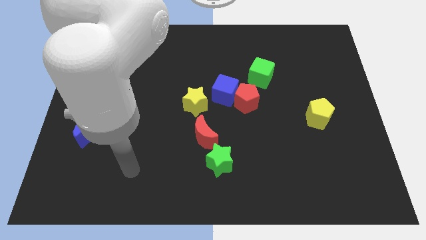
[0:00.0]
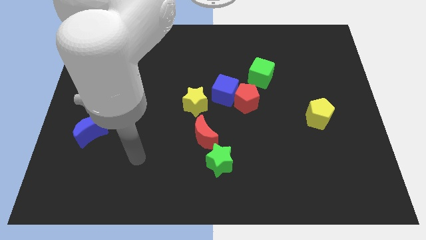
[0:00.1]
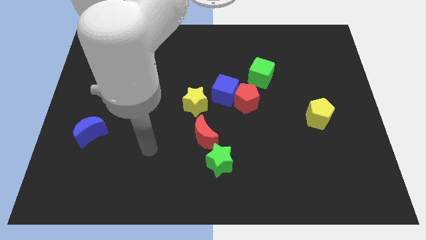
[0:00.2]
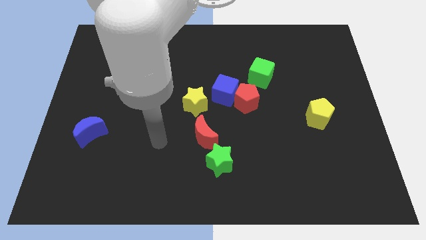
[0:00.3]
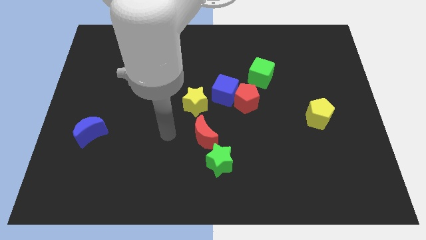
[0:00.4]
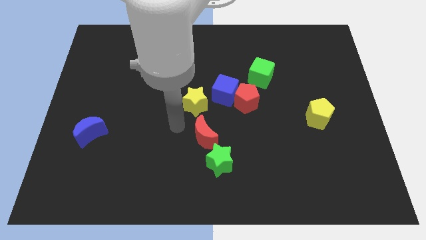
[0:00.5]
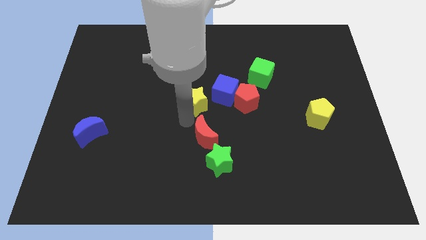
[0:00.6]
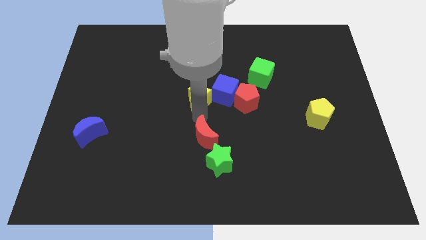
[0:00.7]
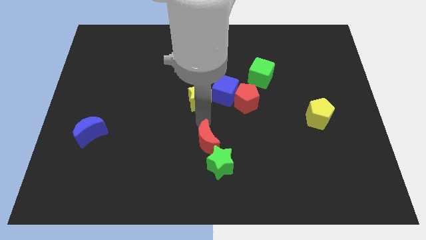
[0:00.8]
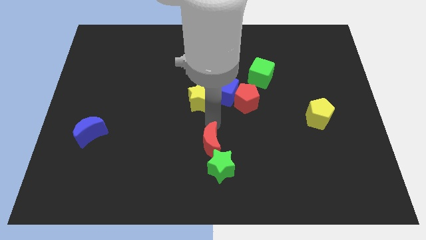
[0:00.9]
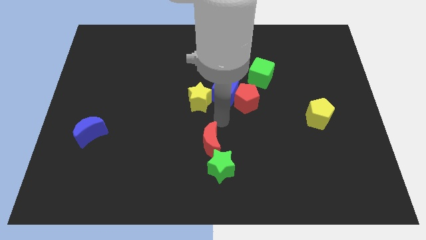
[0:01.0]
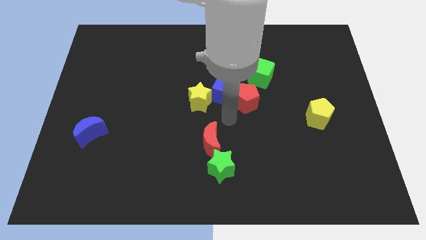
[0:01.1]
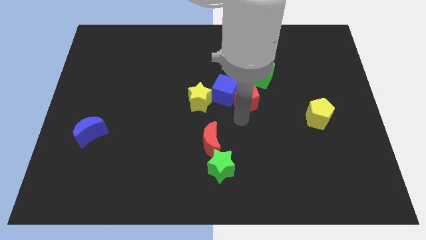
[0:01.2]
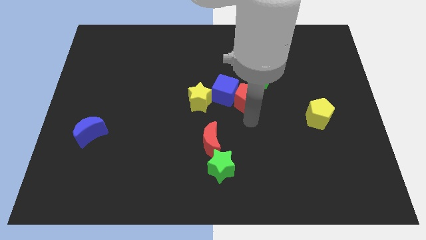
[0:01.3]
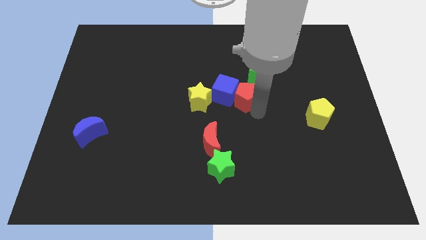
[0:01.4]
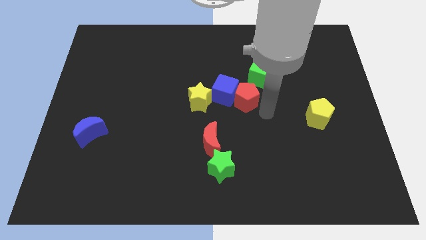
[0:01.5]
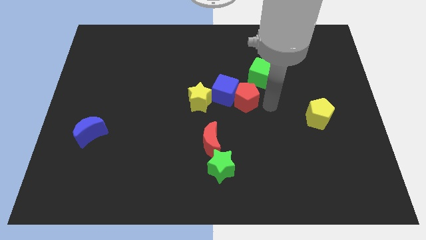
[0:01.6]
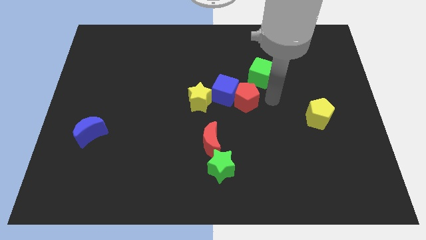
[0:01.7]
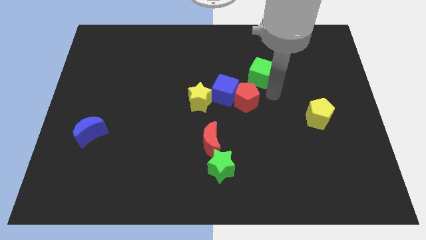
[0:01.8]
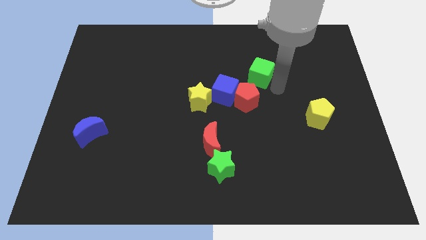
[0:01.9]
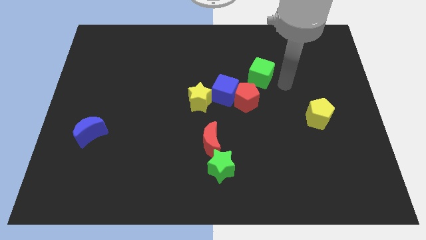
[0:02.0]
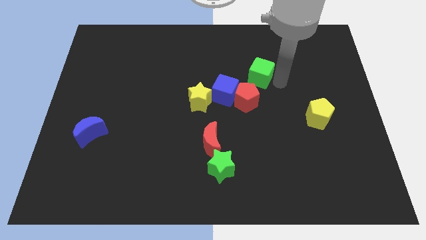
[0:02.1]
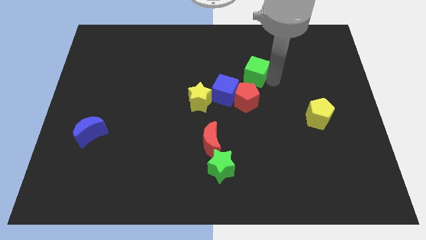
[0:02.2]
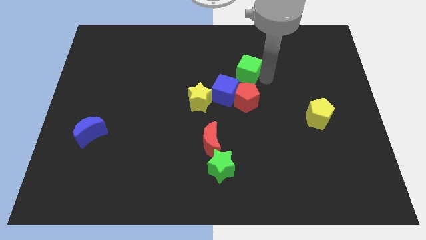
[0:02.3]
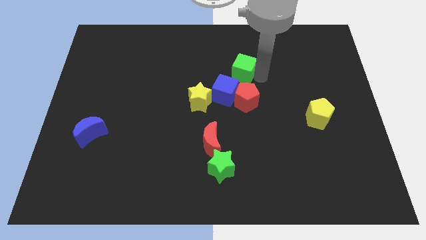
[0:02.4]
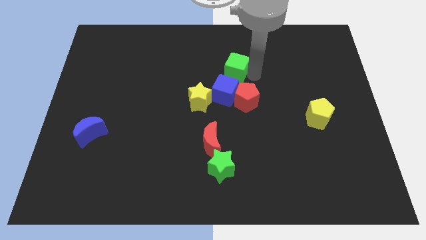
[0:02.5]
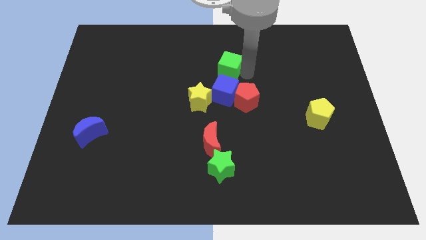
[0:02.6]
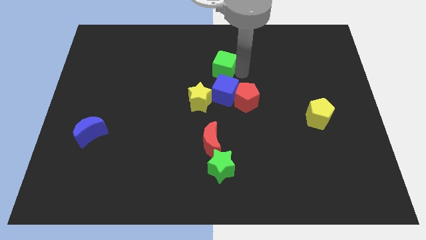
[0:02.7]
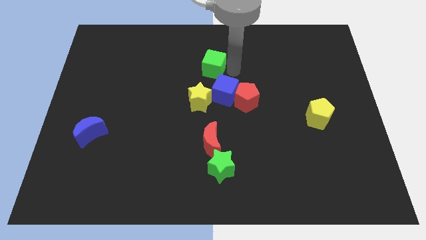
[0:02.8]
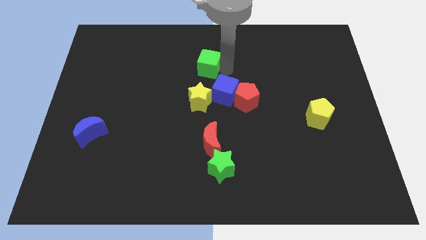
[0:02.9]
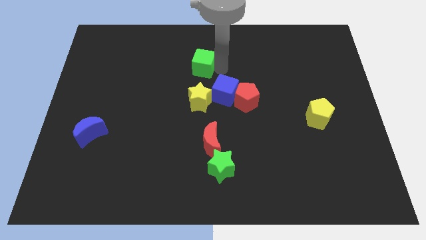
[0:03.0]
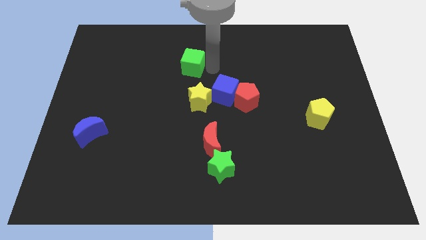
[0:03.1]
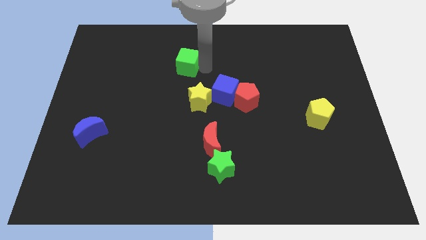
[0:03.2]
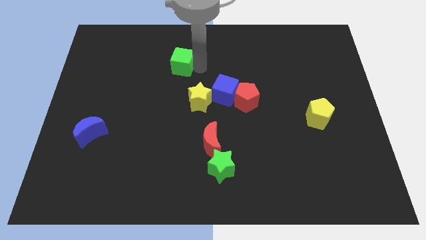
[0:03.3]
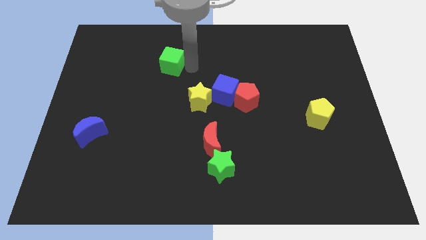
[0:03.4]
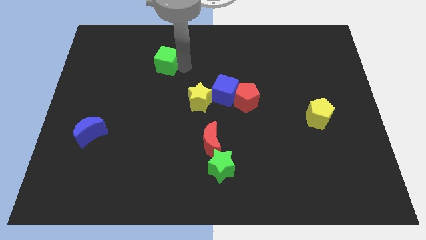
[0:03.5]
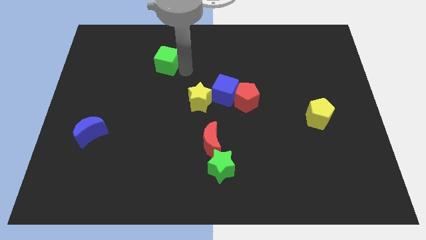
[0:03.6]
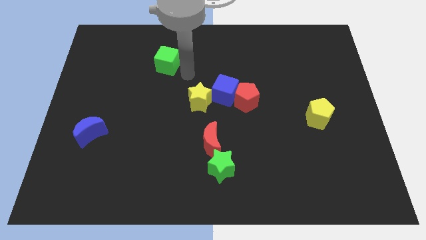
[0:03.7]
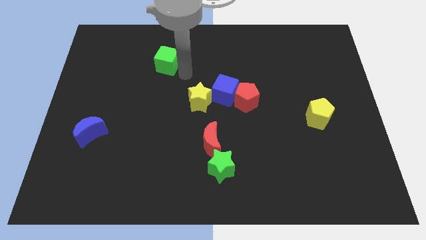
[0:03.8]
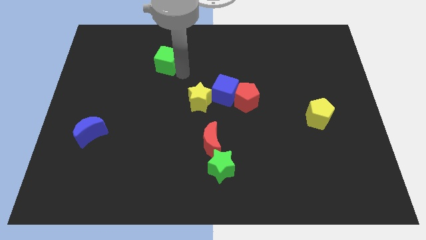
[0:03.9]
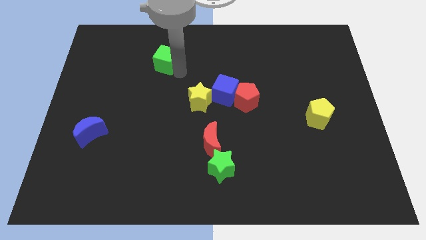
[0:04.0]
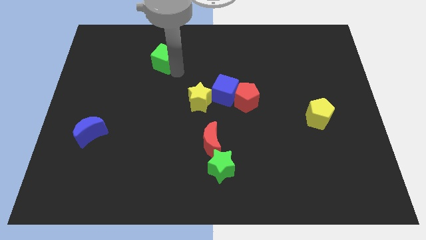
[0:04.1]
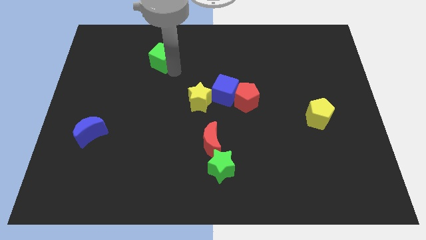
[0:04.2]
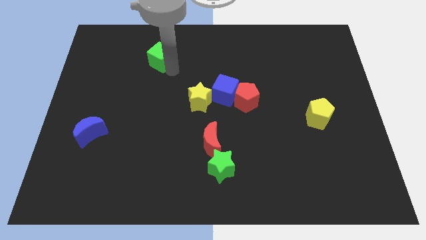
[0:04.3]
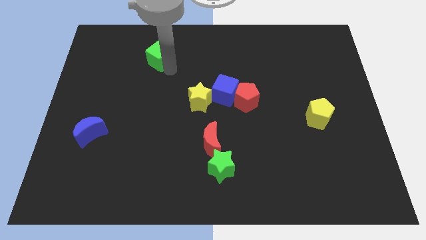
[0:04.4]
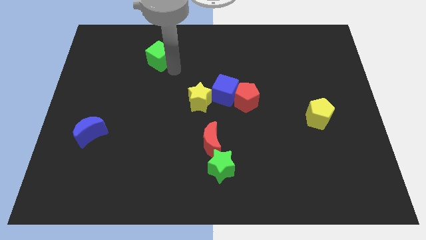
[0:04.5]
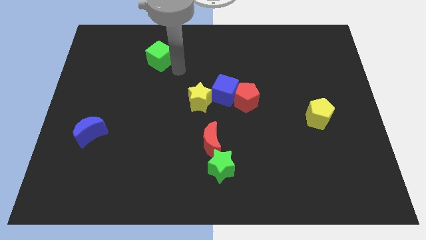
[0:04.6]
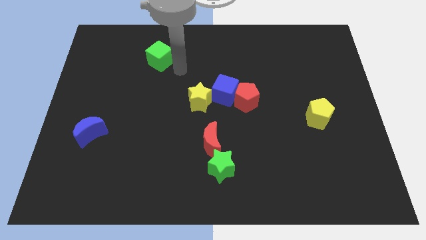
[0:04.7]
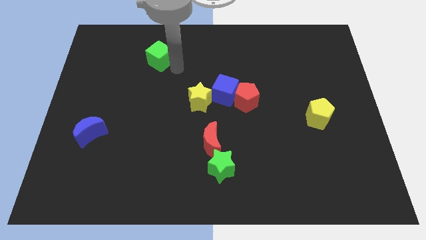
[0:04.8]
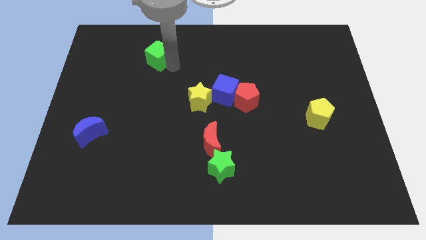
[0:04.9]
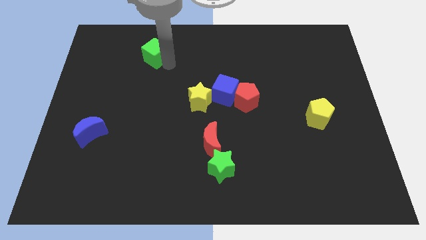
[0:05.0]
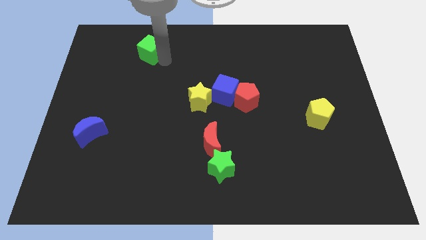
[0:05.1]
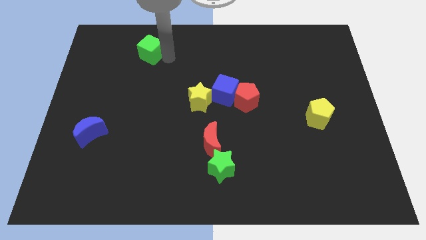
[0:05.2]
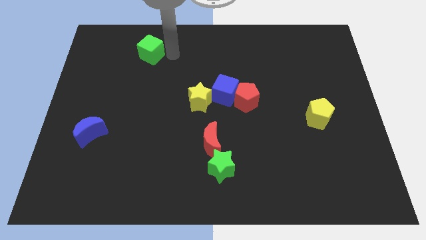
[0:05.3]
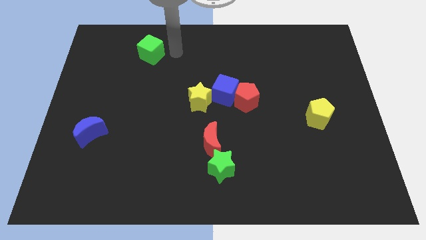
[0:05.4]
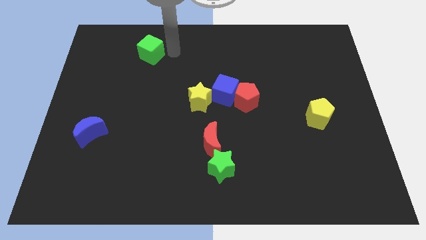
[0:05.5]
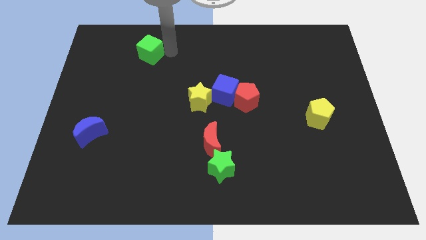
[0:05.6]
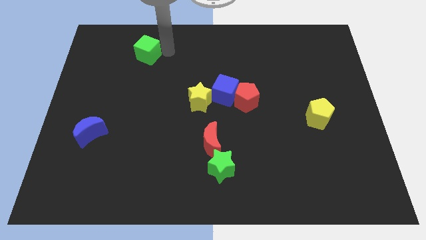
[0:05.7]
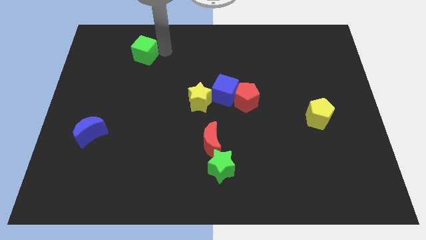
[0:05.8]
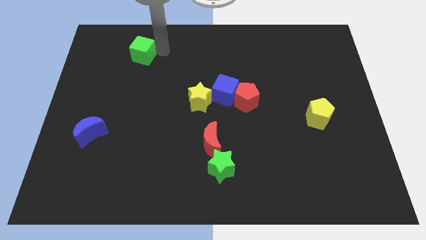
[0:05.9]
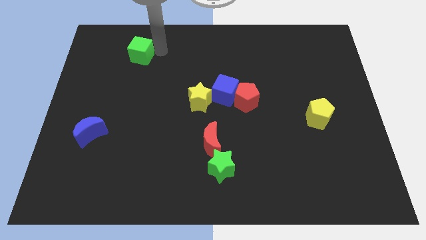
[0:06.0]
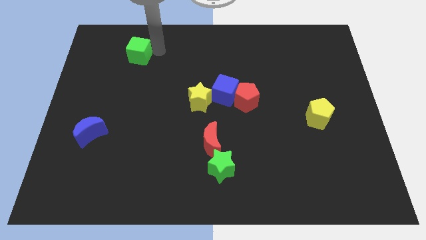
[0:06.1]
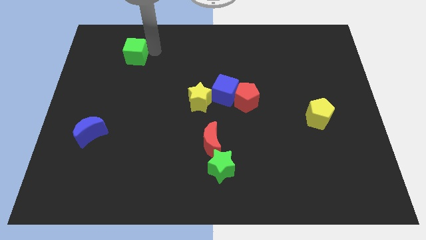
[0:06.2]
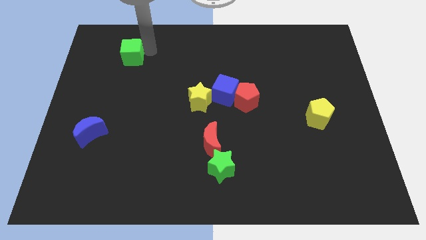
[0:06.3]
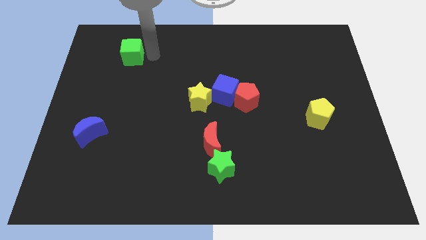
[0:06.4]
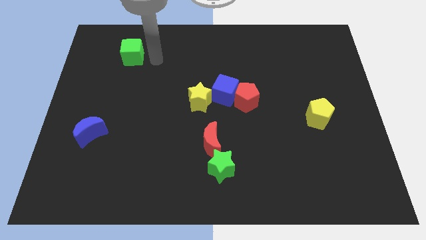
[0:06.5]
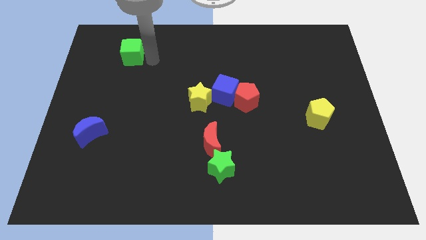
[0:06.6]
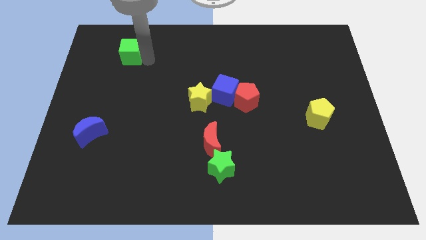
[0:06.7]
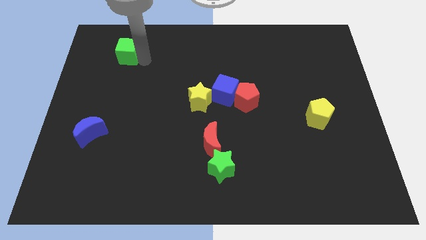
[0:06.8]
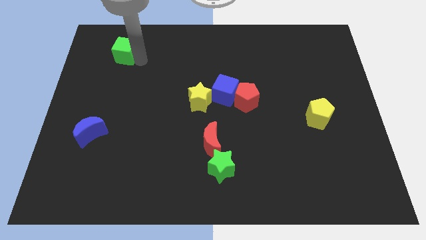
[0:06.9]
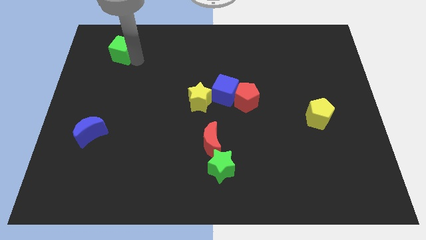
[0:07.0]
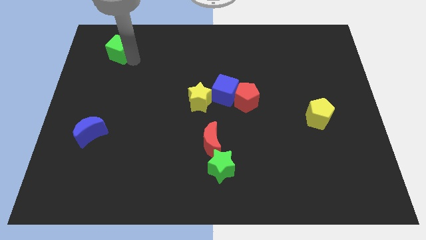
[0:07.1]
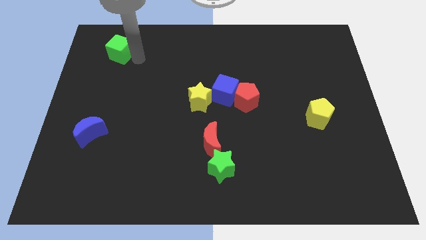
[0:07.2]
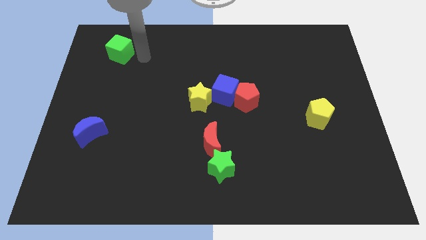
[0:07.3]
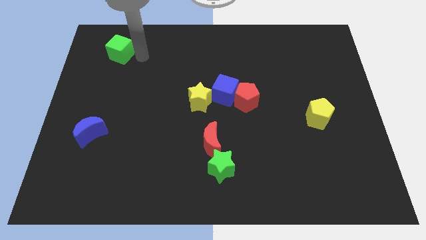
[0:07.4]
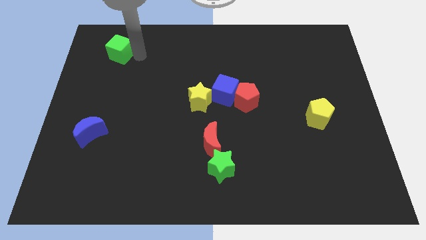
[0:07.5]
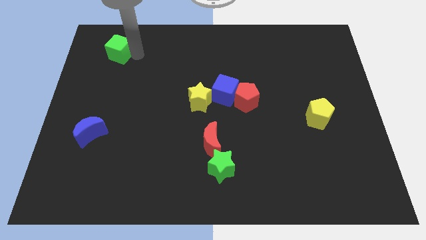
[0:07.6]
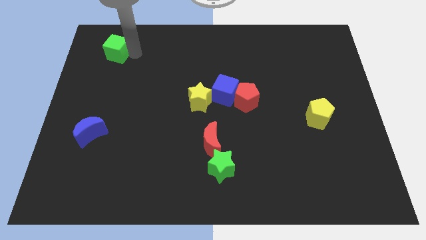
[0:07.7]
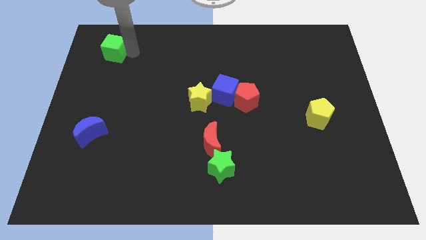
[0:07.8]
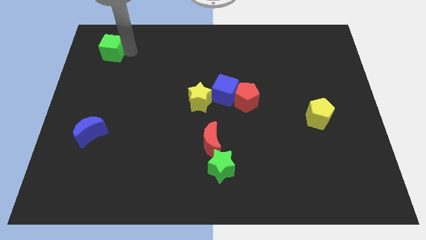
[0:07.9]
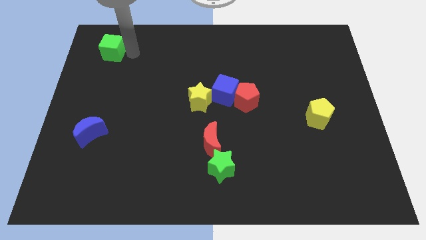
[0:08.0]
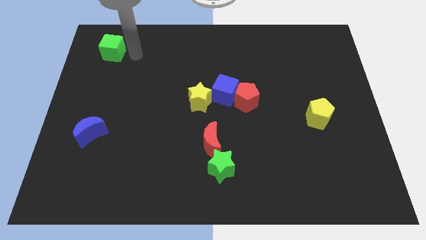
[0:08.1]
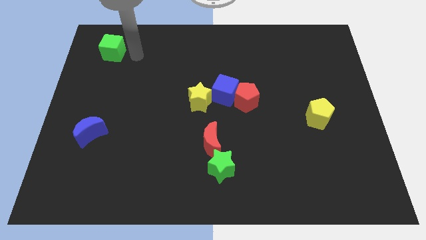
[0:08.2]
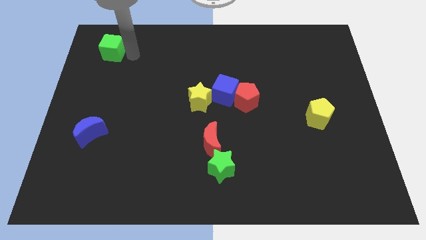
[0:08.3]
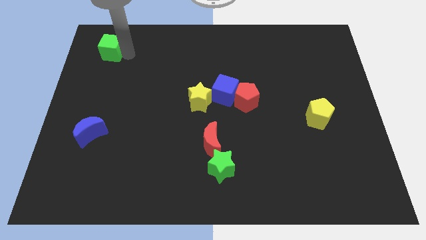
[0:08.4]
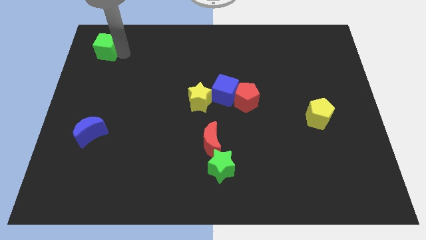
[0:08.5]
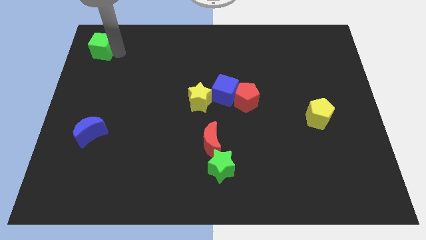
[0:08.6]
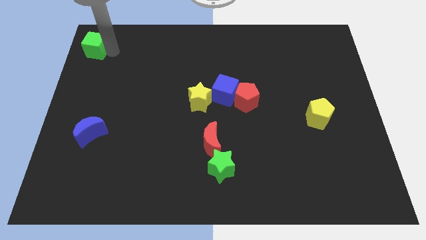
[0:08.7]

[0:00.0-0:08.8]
move the green cube to the top left corner
